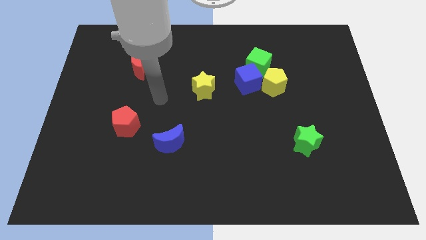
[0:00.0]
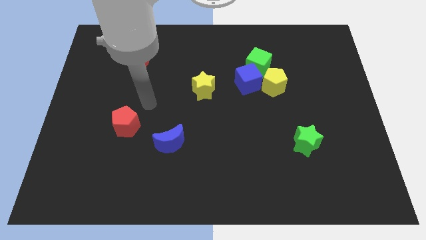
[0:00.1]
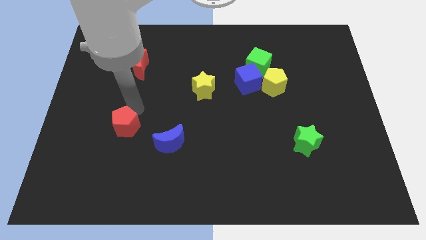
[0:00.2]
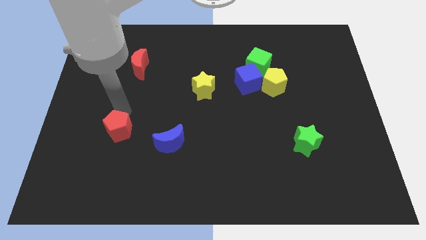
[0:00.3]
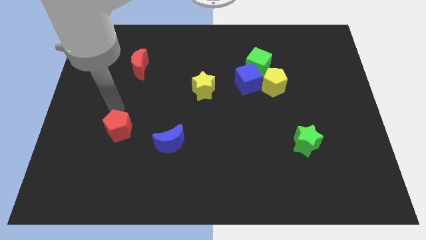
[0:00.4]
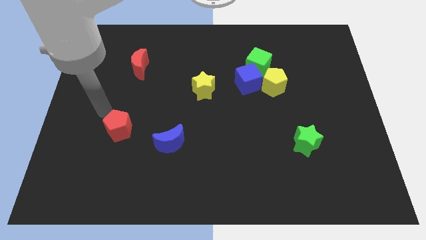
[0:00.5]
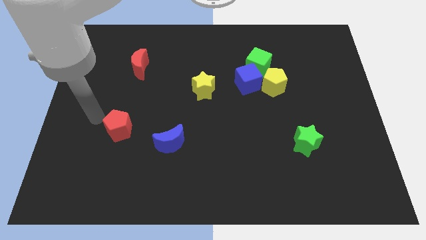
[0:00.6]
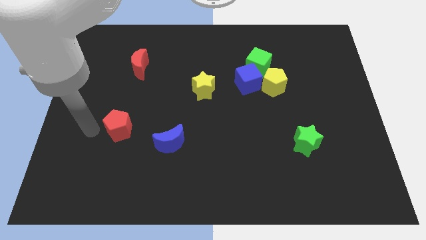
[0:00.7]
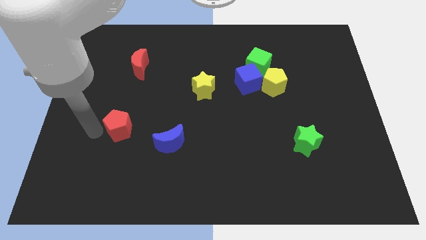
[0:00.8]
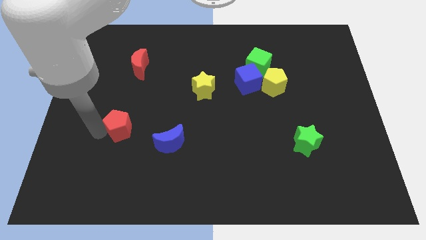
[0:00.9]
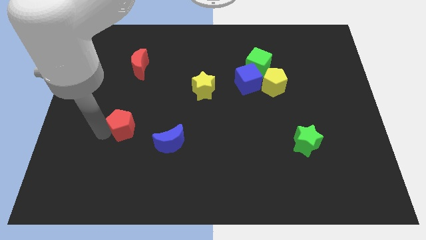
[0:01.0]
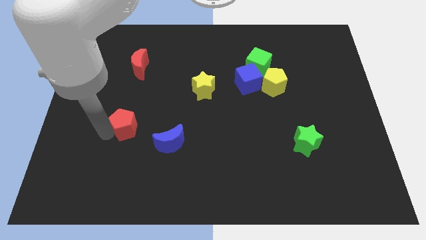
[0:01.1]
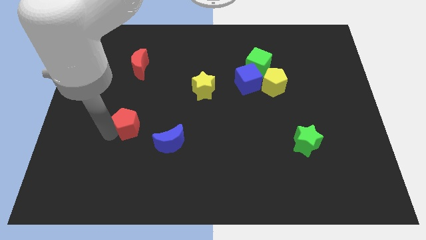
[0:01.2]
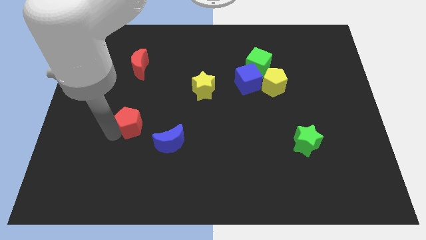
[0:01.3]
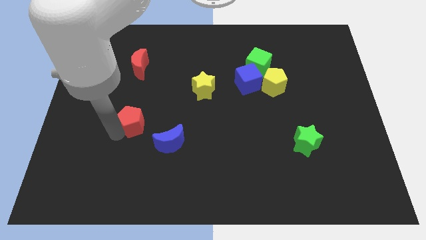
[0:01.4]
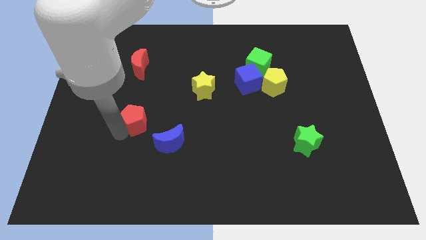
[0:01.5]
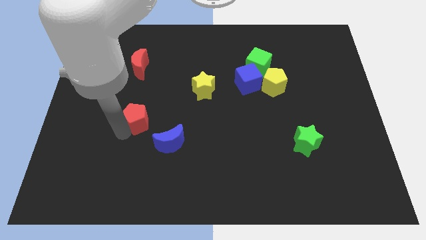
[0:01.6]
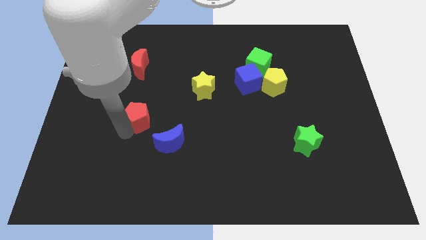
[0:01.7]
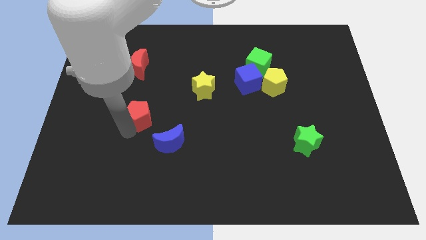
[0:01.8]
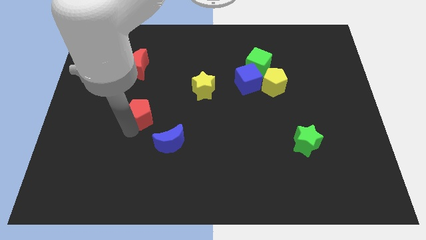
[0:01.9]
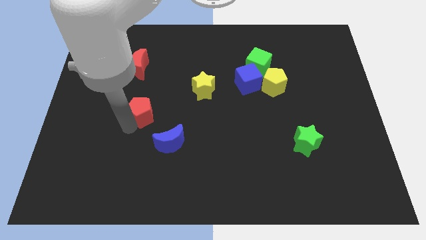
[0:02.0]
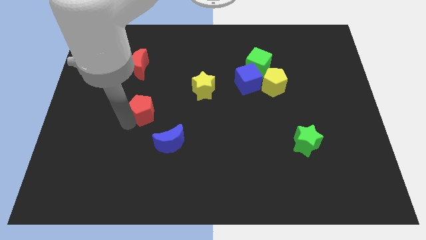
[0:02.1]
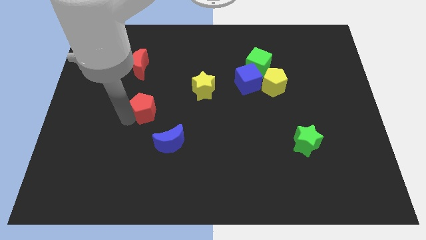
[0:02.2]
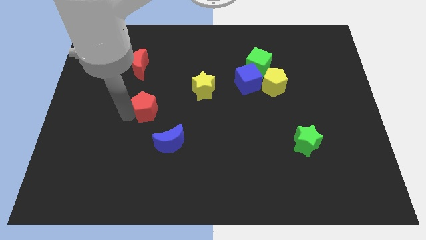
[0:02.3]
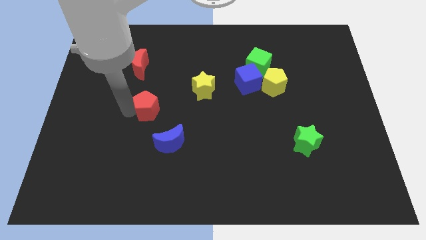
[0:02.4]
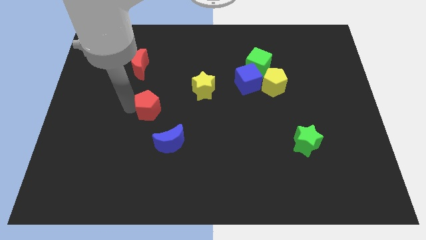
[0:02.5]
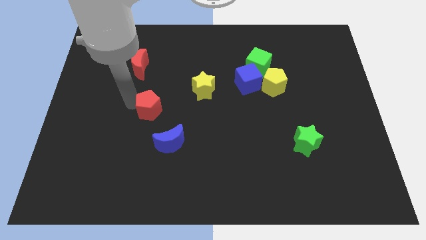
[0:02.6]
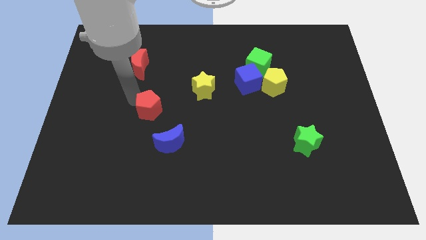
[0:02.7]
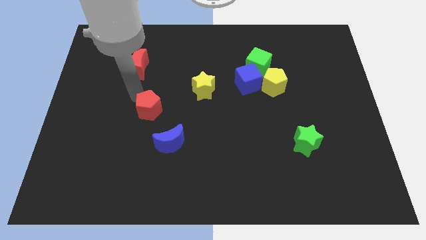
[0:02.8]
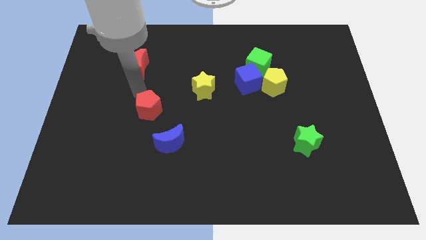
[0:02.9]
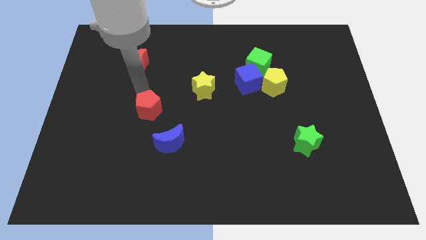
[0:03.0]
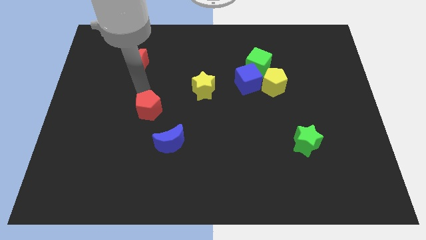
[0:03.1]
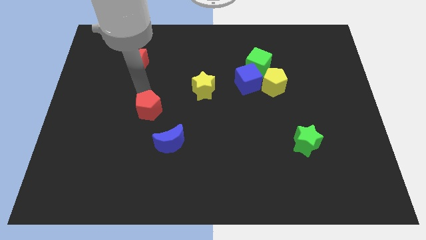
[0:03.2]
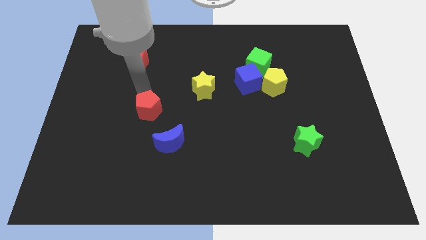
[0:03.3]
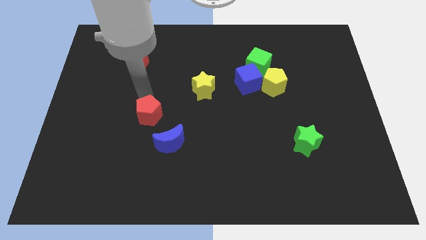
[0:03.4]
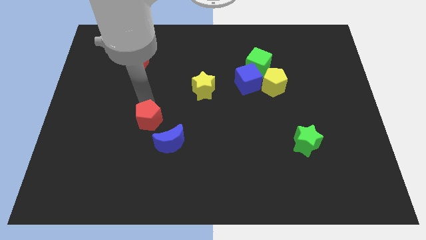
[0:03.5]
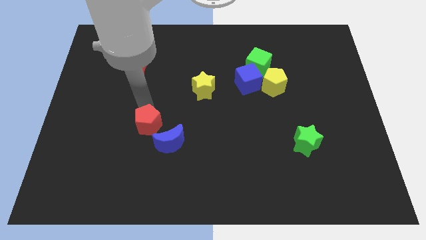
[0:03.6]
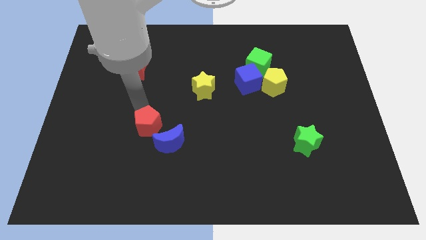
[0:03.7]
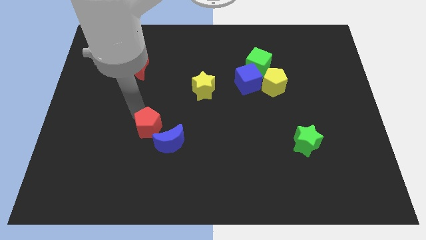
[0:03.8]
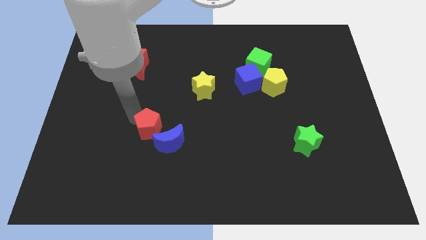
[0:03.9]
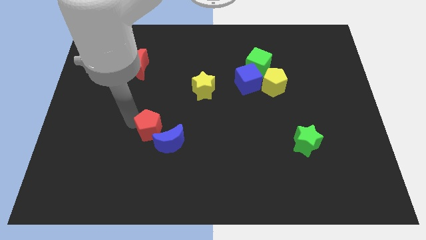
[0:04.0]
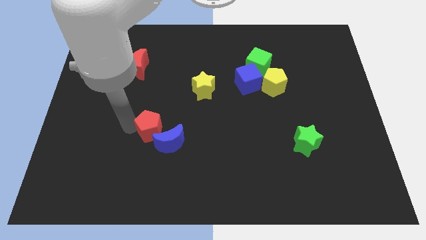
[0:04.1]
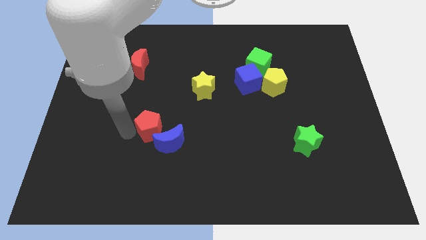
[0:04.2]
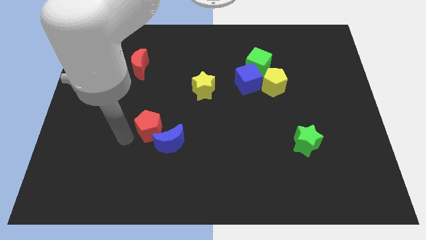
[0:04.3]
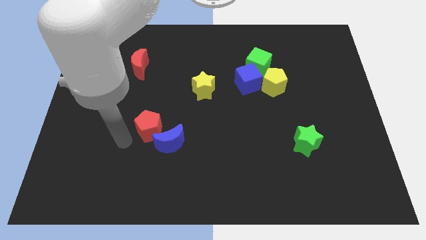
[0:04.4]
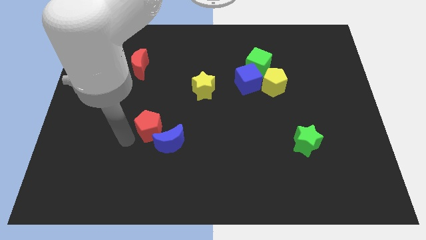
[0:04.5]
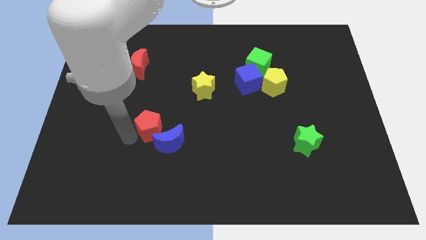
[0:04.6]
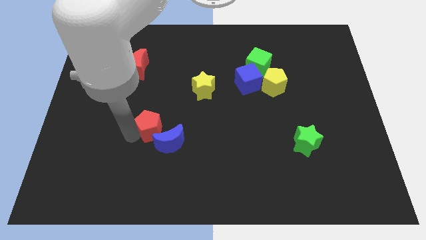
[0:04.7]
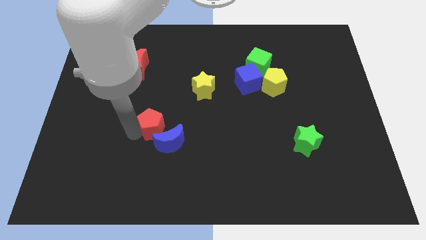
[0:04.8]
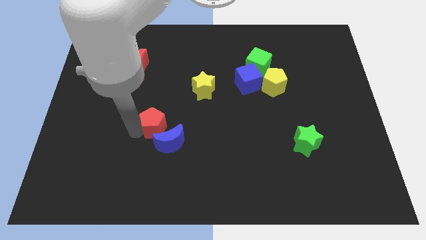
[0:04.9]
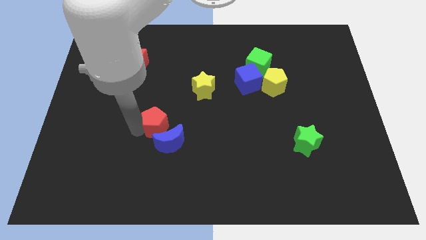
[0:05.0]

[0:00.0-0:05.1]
slide the red pentagon right a little

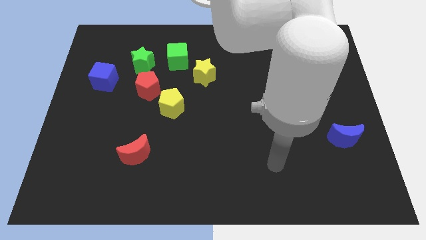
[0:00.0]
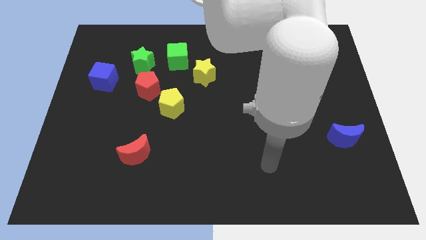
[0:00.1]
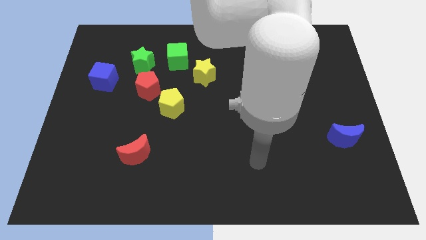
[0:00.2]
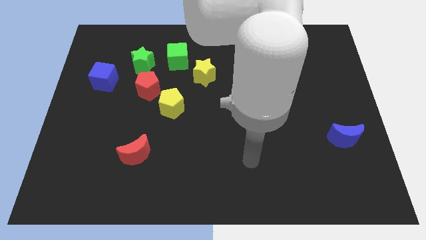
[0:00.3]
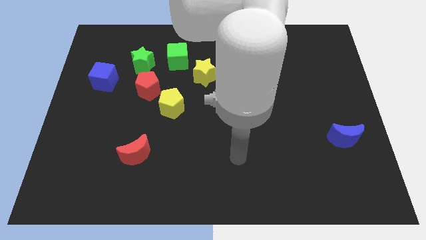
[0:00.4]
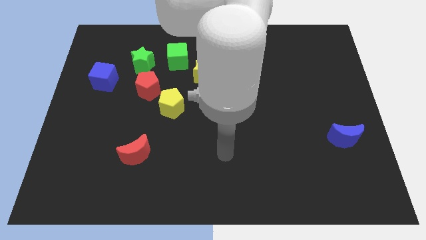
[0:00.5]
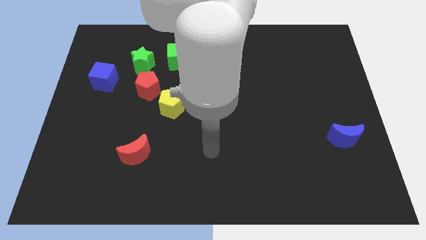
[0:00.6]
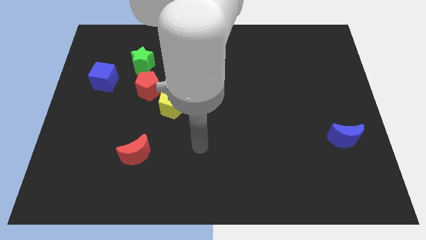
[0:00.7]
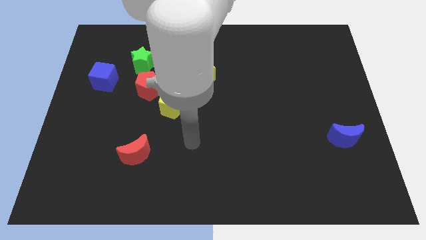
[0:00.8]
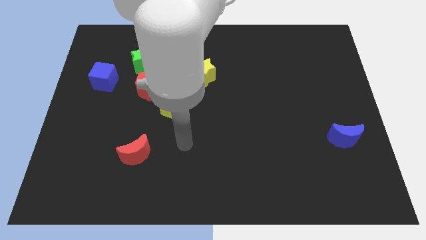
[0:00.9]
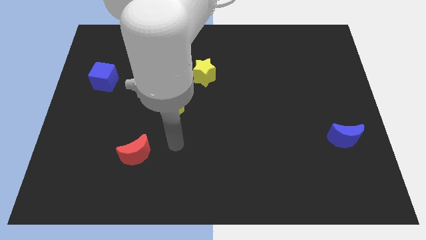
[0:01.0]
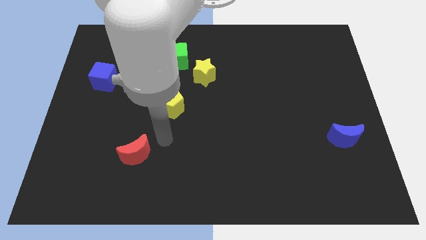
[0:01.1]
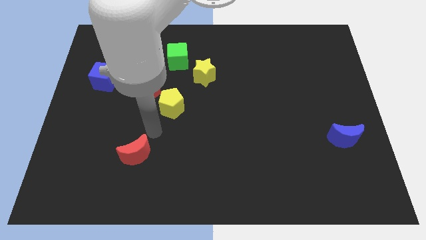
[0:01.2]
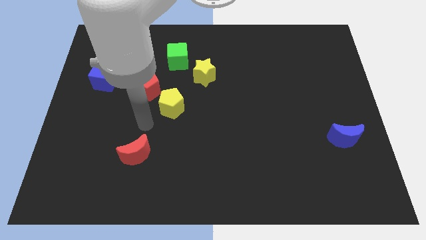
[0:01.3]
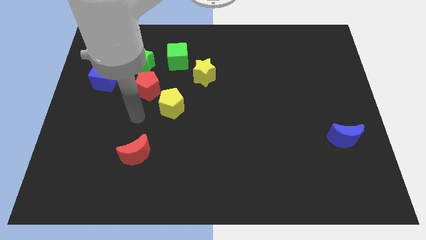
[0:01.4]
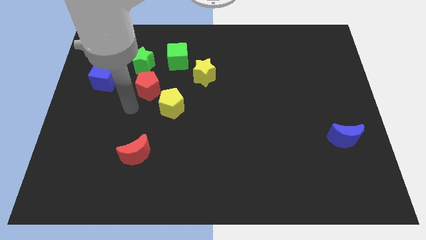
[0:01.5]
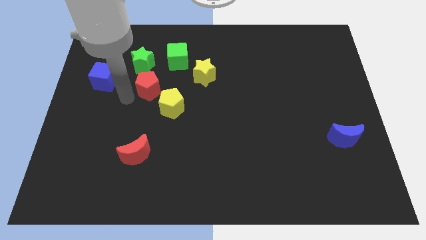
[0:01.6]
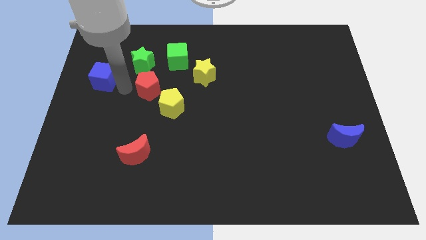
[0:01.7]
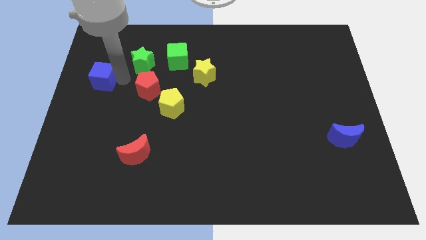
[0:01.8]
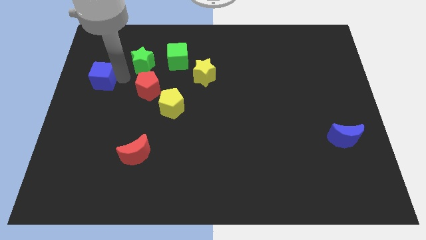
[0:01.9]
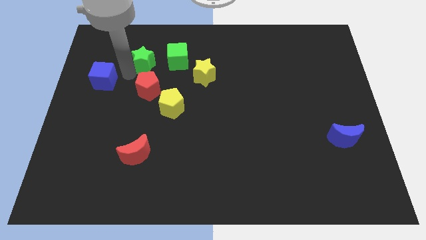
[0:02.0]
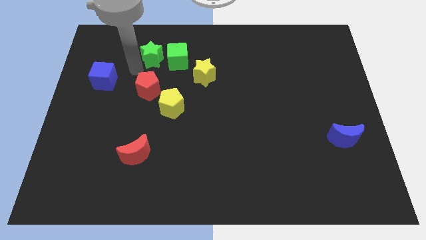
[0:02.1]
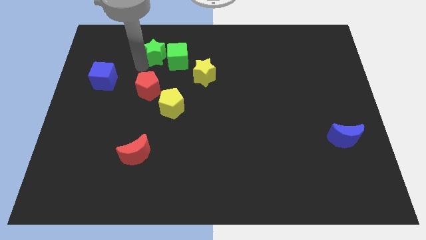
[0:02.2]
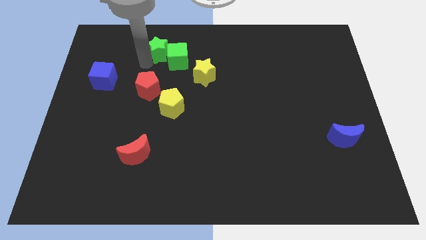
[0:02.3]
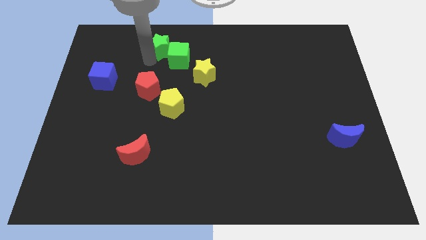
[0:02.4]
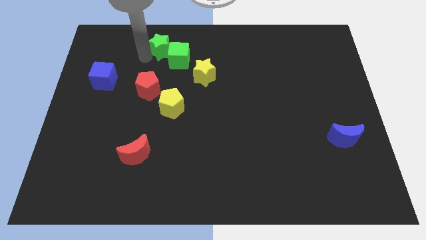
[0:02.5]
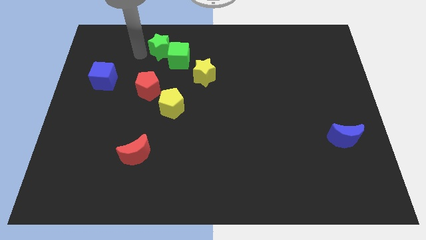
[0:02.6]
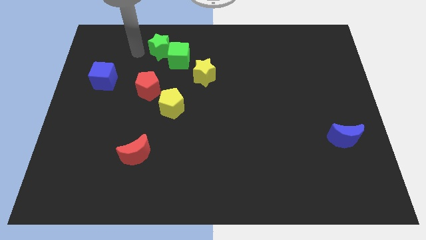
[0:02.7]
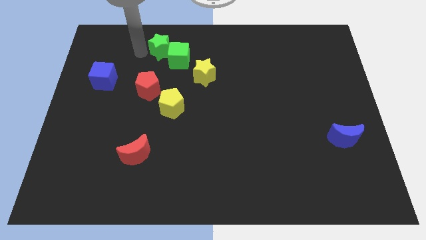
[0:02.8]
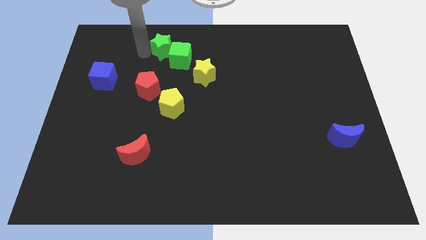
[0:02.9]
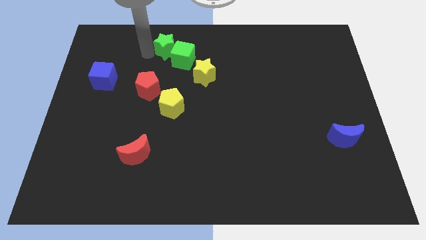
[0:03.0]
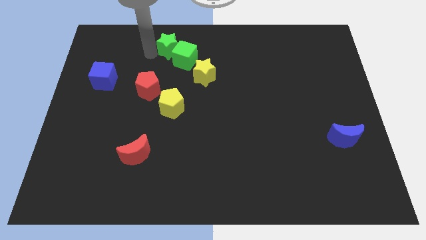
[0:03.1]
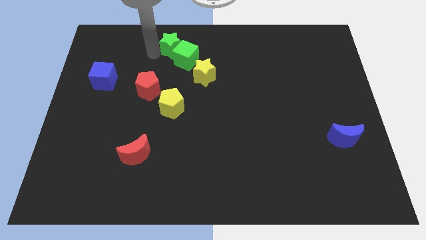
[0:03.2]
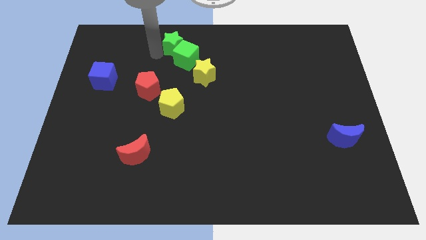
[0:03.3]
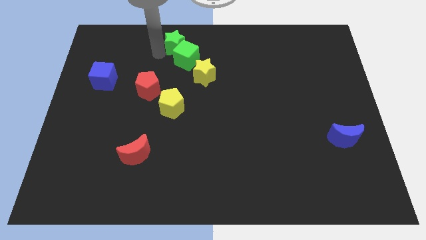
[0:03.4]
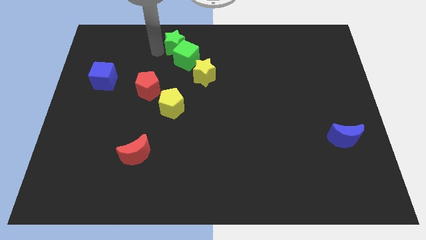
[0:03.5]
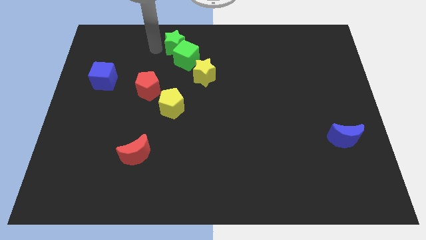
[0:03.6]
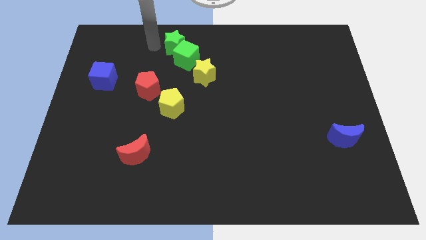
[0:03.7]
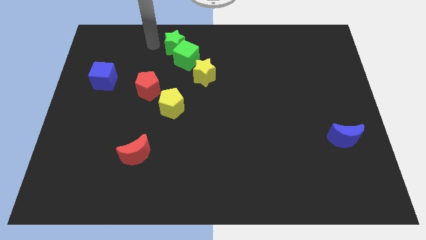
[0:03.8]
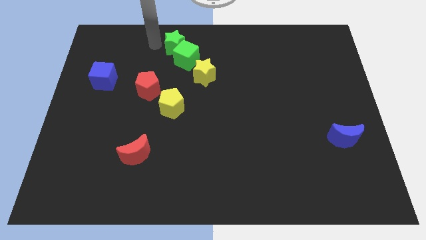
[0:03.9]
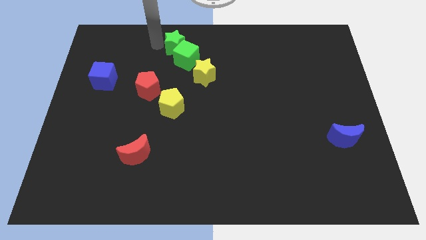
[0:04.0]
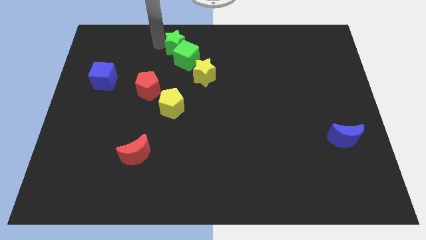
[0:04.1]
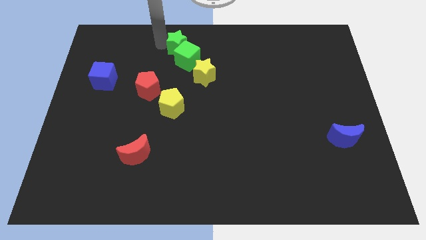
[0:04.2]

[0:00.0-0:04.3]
slide the green star a bit to the right
